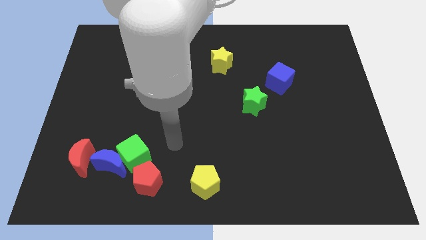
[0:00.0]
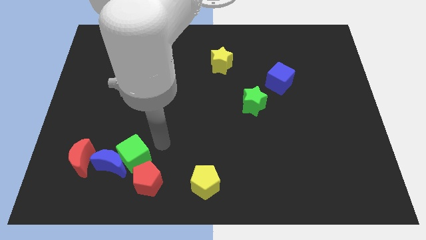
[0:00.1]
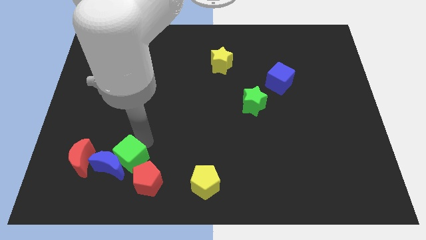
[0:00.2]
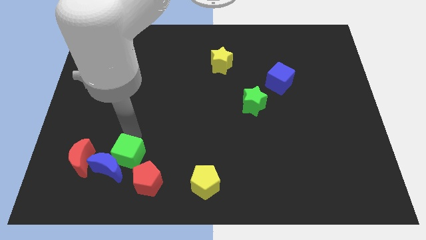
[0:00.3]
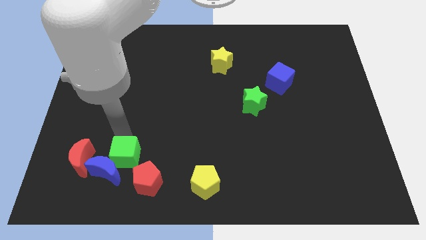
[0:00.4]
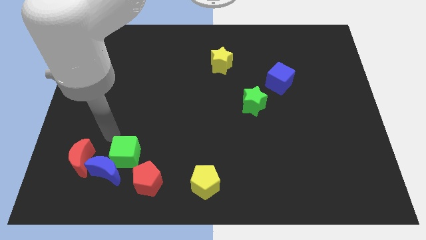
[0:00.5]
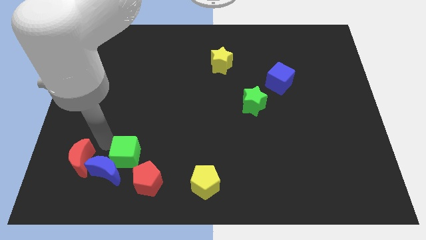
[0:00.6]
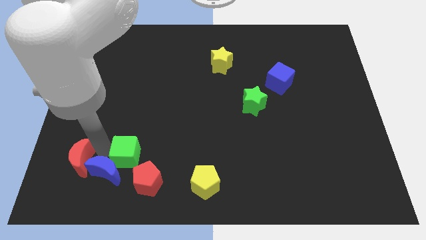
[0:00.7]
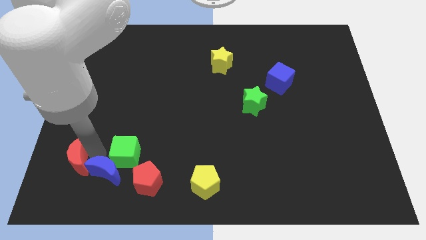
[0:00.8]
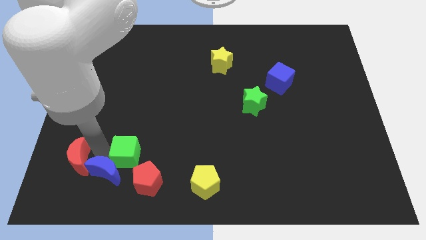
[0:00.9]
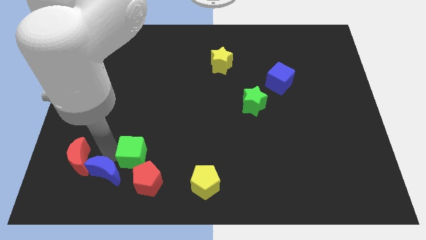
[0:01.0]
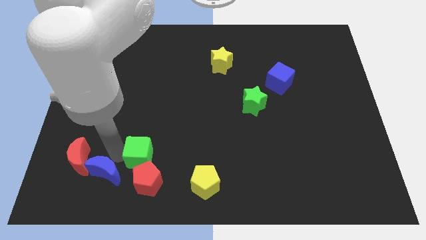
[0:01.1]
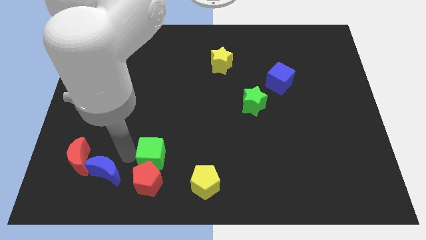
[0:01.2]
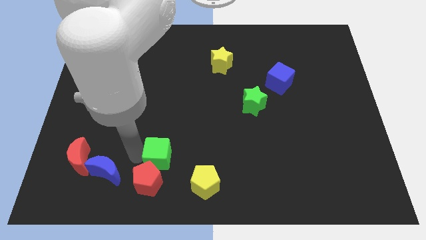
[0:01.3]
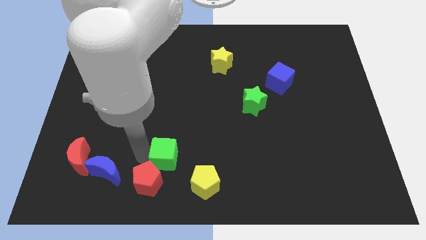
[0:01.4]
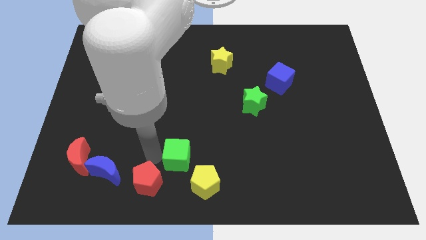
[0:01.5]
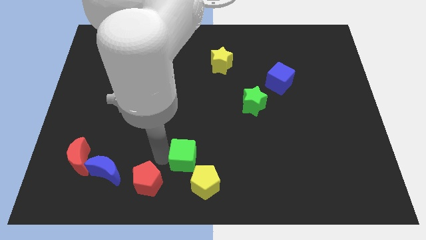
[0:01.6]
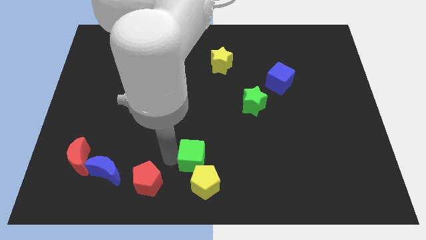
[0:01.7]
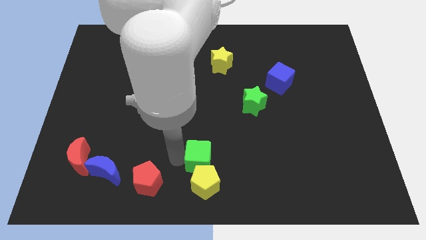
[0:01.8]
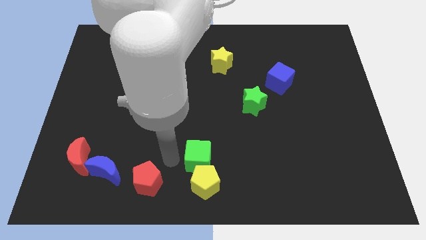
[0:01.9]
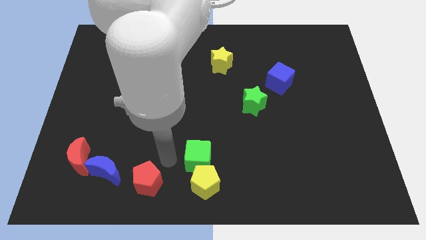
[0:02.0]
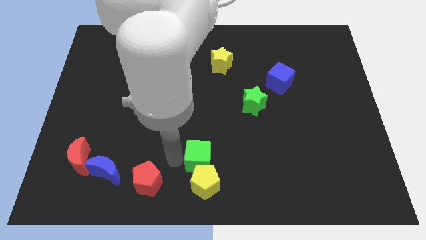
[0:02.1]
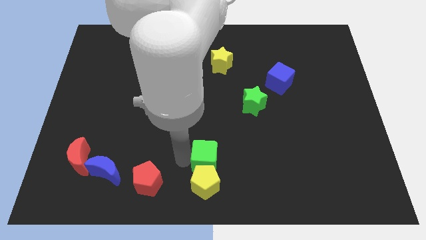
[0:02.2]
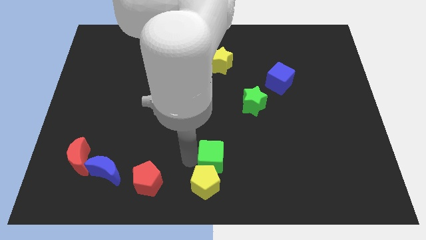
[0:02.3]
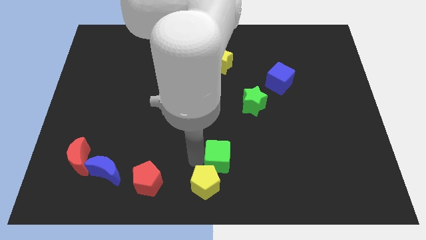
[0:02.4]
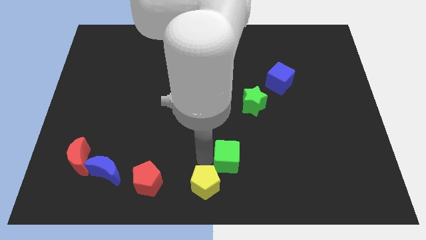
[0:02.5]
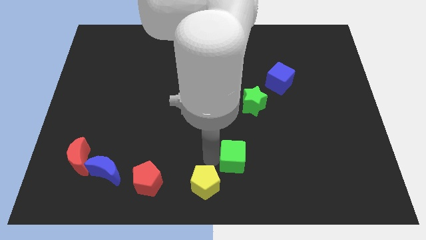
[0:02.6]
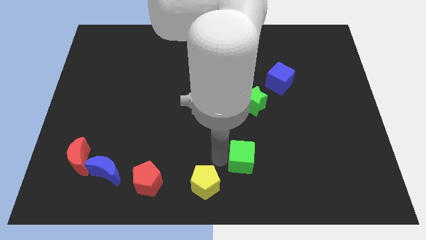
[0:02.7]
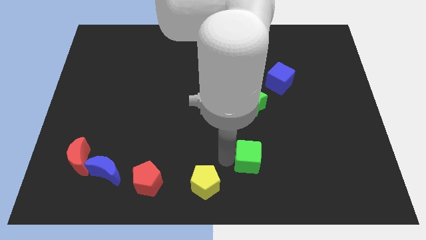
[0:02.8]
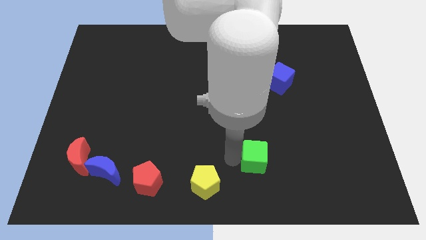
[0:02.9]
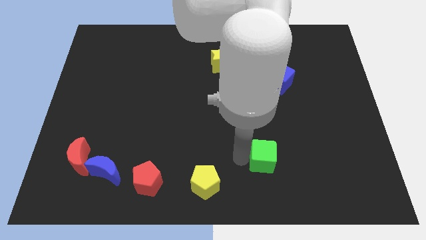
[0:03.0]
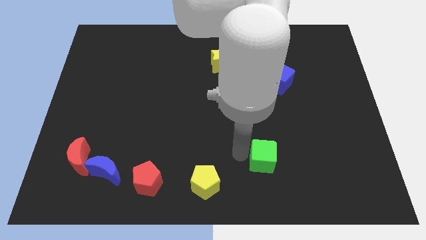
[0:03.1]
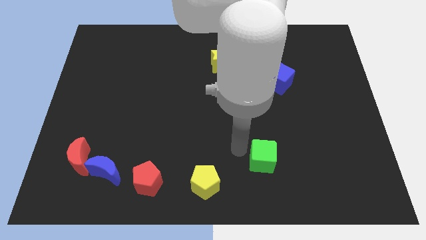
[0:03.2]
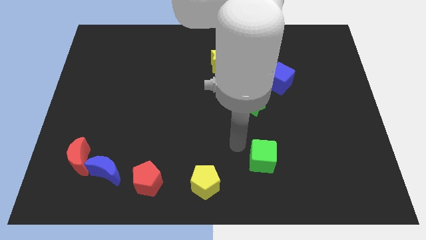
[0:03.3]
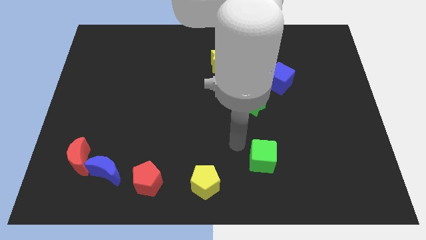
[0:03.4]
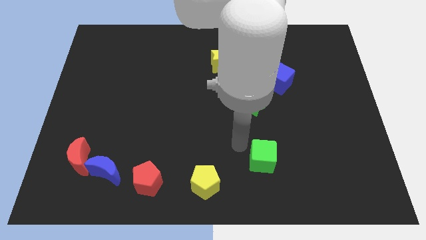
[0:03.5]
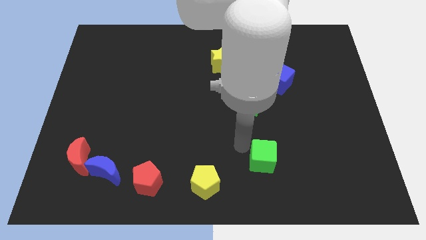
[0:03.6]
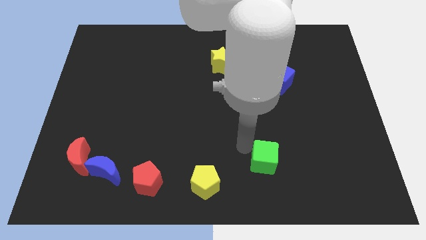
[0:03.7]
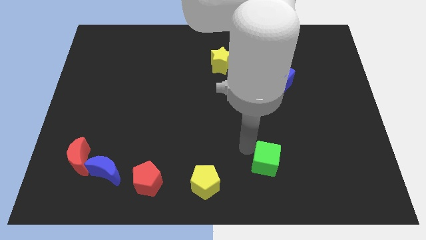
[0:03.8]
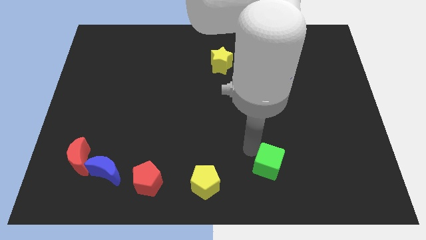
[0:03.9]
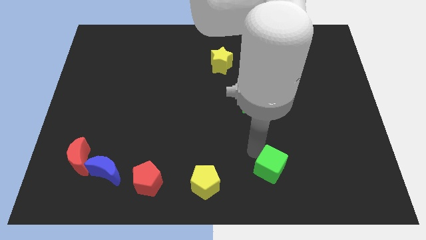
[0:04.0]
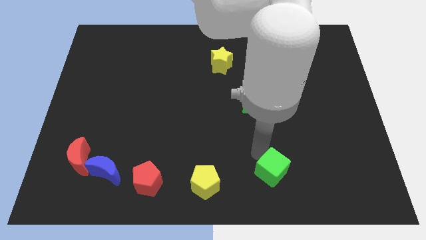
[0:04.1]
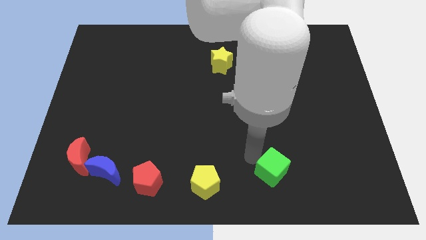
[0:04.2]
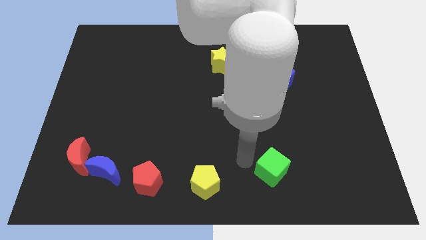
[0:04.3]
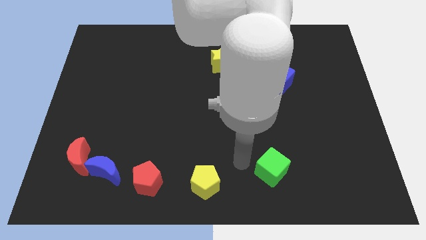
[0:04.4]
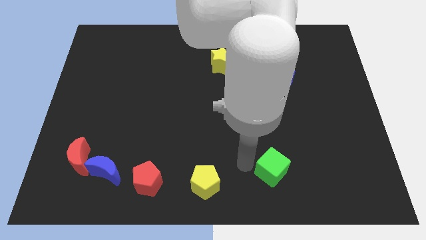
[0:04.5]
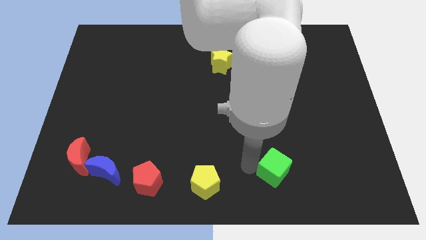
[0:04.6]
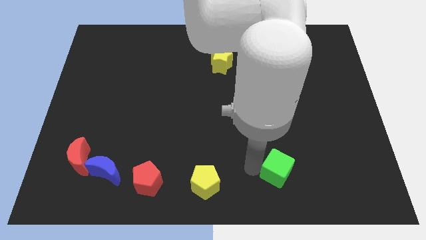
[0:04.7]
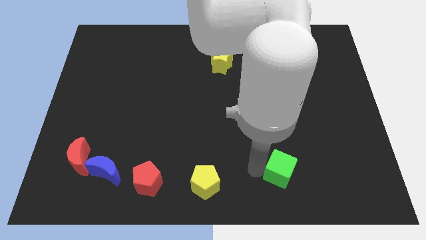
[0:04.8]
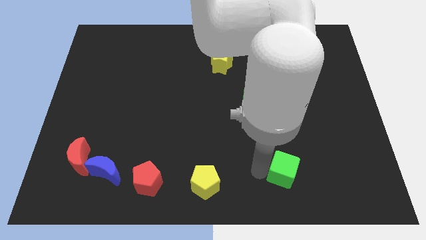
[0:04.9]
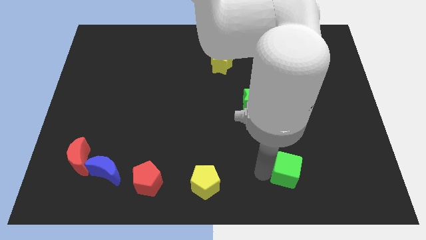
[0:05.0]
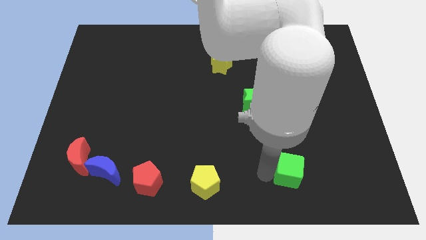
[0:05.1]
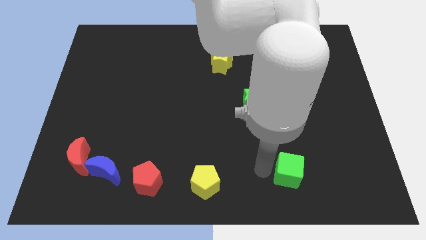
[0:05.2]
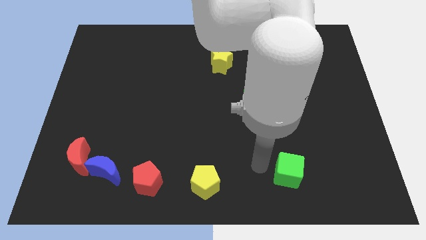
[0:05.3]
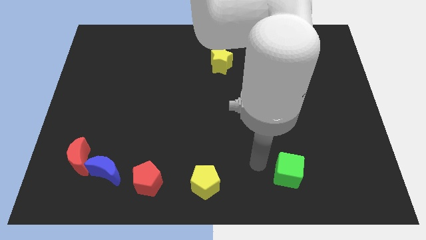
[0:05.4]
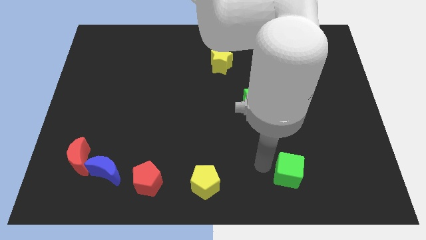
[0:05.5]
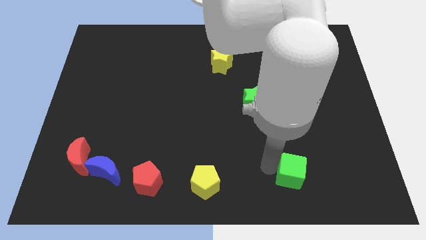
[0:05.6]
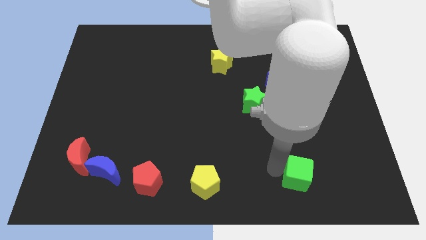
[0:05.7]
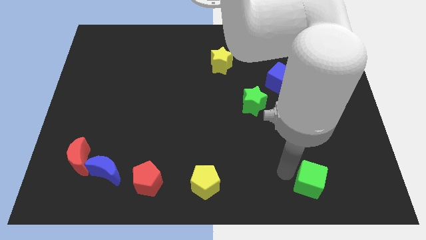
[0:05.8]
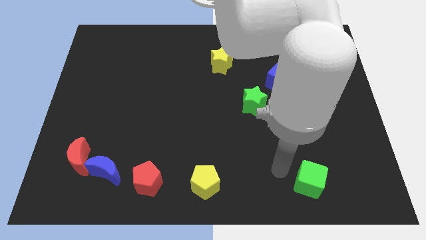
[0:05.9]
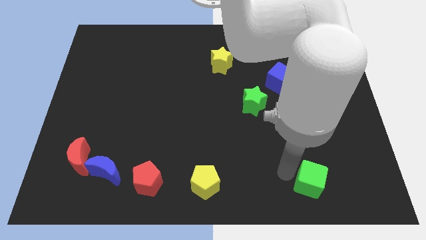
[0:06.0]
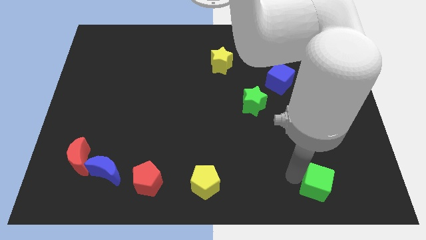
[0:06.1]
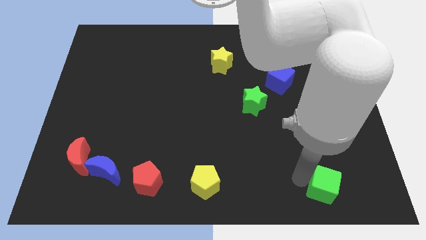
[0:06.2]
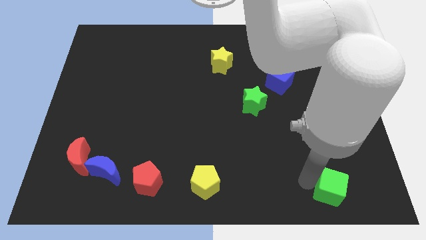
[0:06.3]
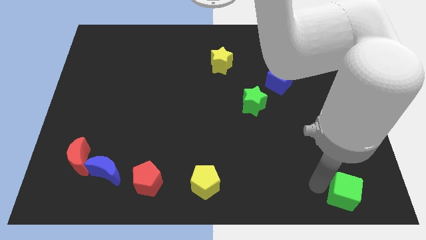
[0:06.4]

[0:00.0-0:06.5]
slide the green cube to the bottom right

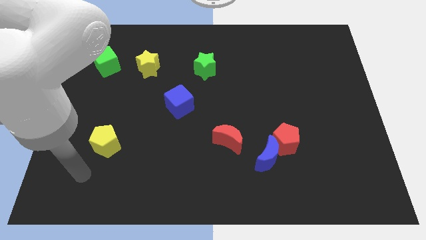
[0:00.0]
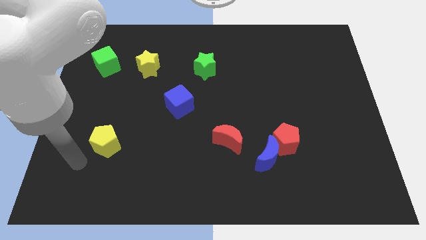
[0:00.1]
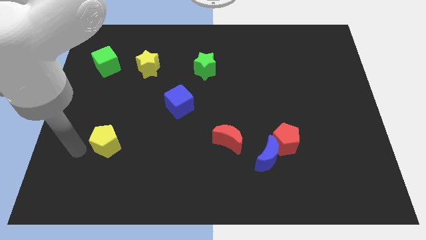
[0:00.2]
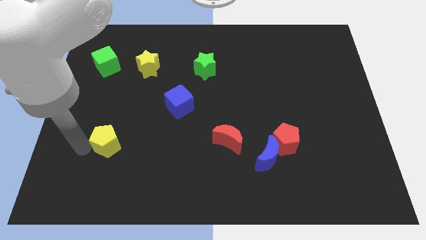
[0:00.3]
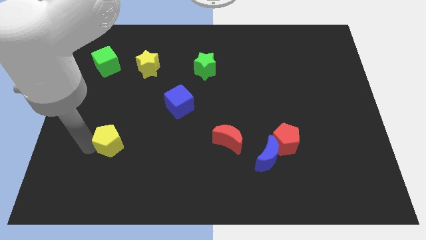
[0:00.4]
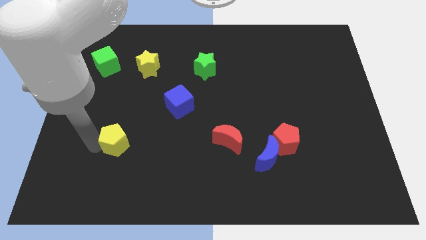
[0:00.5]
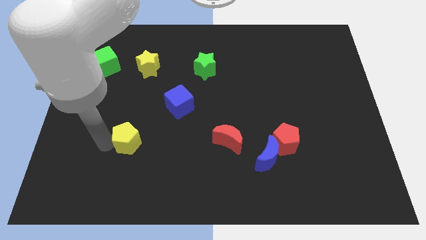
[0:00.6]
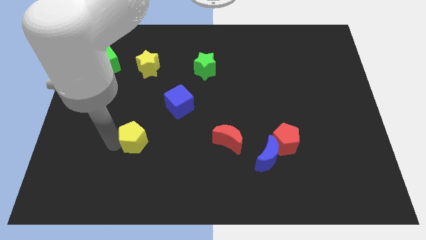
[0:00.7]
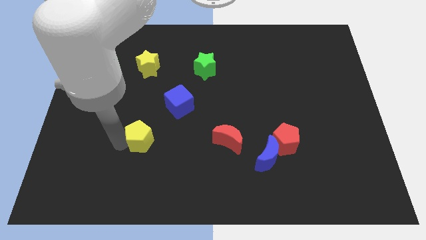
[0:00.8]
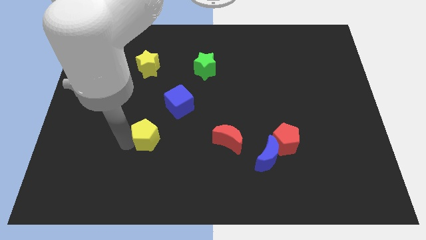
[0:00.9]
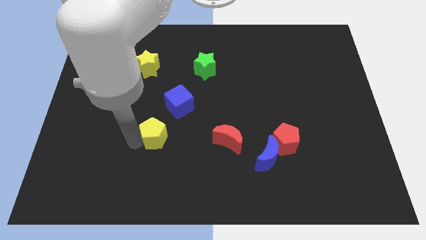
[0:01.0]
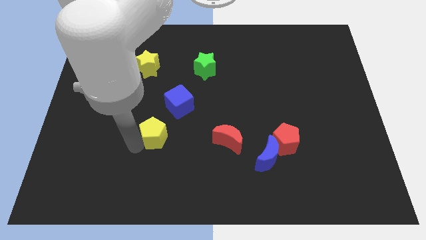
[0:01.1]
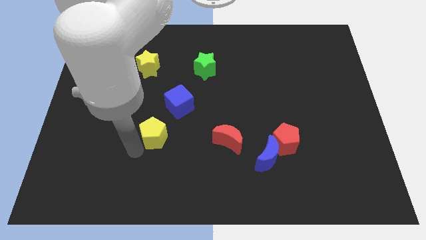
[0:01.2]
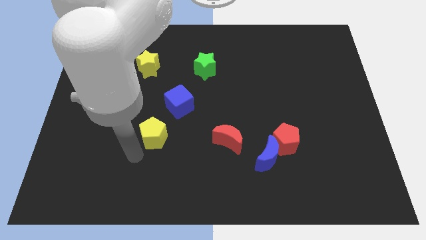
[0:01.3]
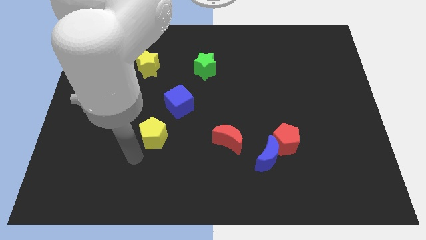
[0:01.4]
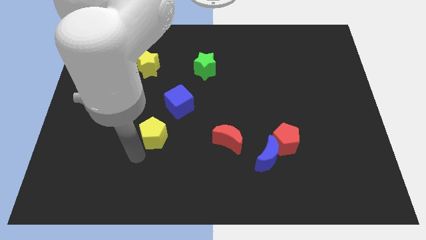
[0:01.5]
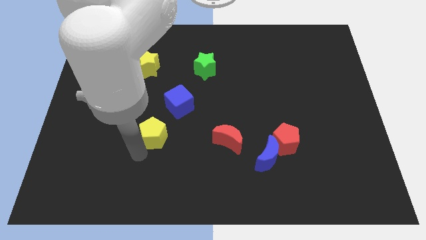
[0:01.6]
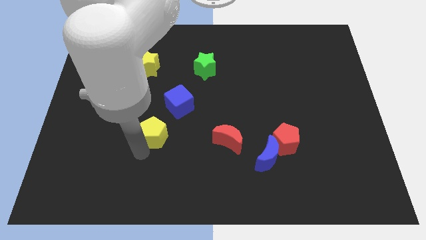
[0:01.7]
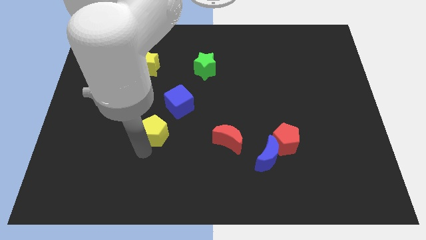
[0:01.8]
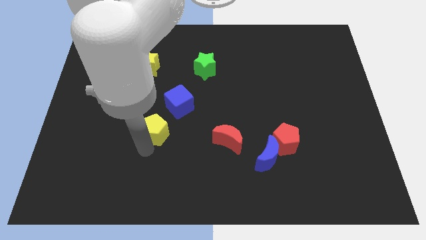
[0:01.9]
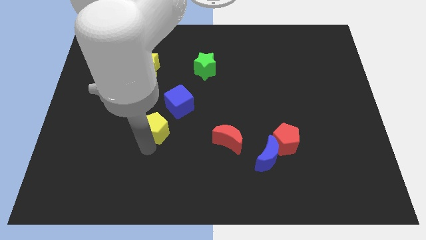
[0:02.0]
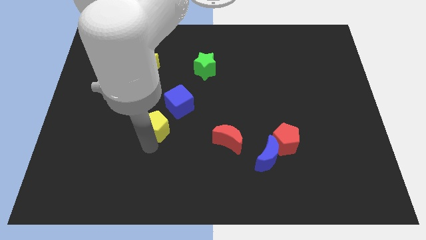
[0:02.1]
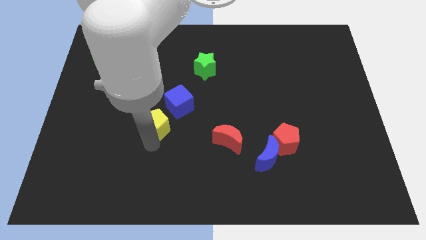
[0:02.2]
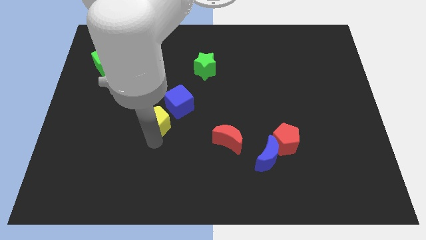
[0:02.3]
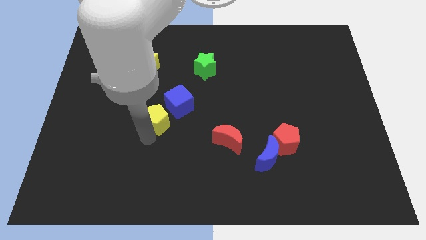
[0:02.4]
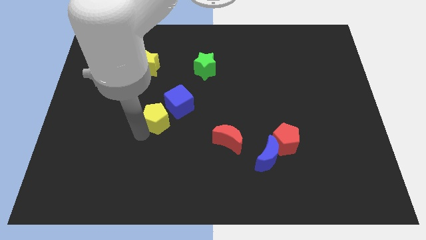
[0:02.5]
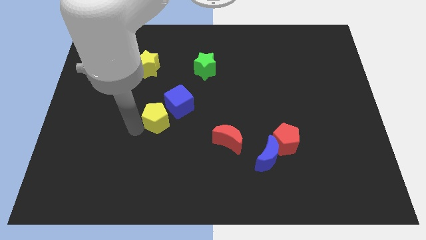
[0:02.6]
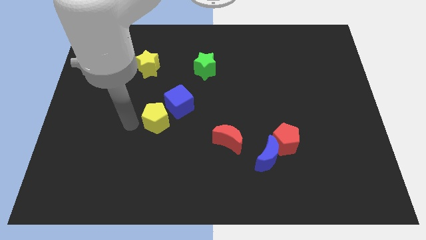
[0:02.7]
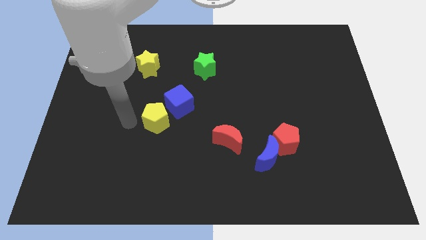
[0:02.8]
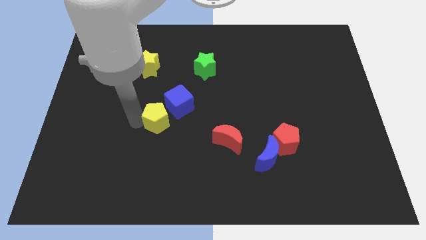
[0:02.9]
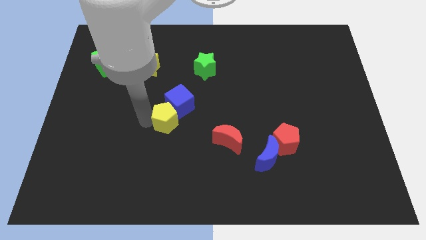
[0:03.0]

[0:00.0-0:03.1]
move the yellow pentagon to the center of the board
